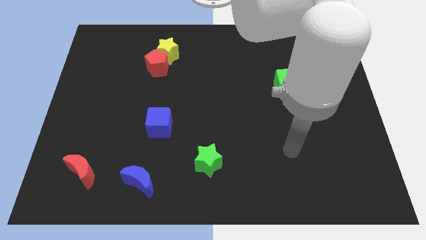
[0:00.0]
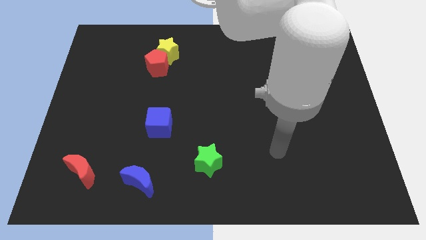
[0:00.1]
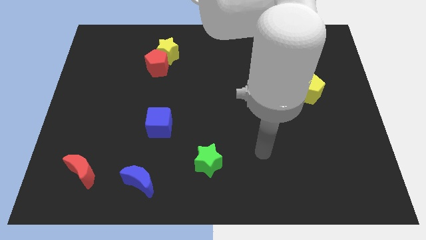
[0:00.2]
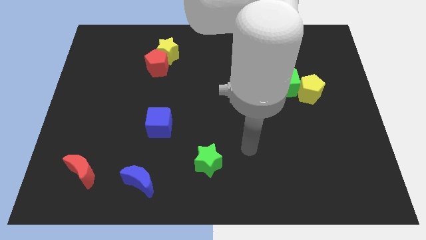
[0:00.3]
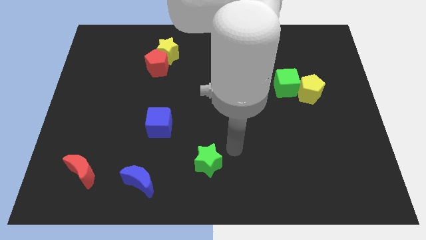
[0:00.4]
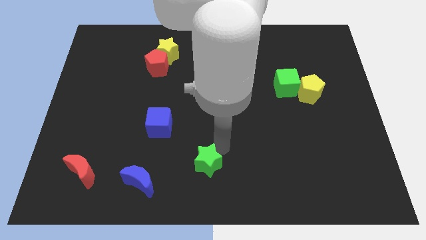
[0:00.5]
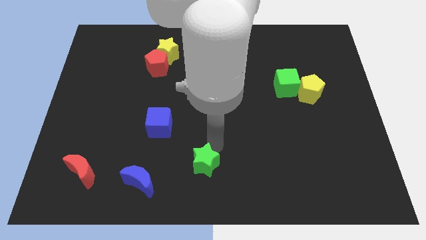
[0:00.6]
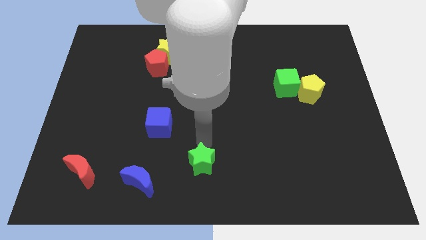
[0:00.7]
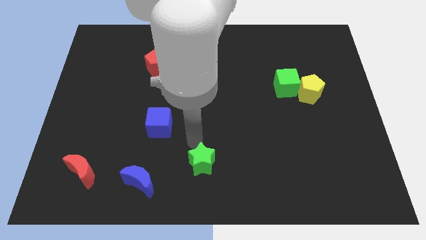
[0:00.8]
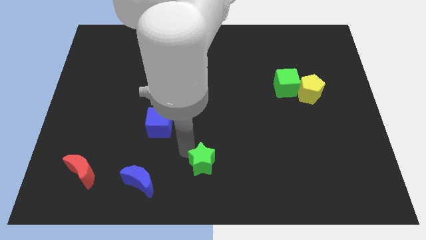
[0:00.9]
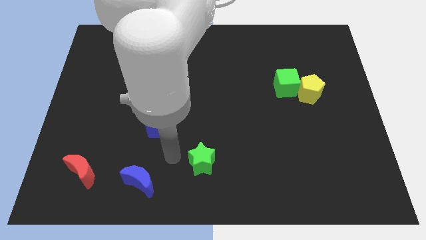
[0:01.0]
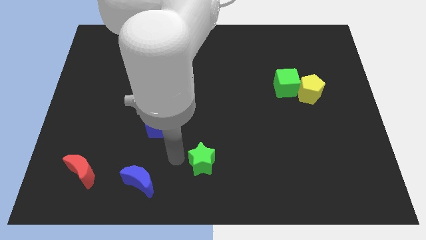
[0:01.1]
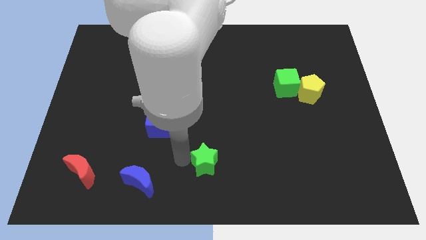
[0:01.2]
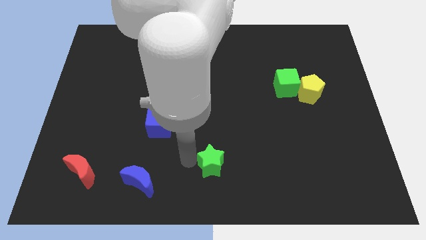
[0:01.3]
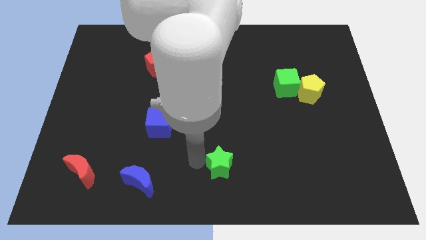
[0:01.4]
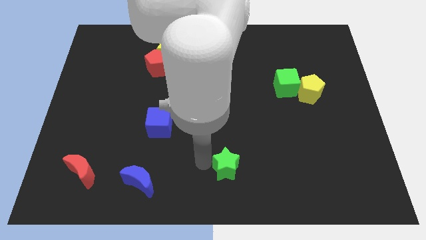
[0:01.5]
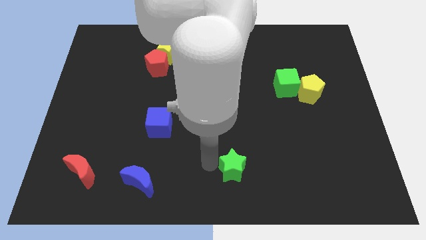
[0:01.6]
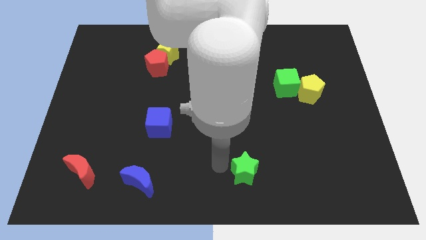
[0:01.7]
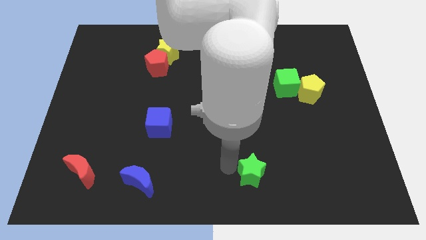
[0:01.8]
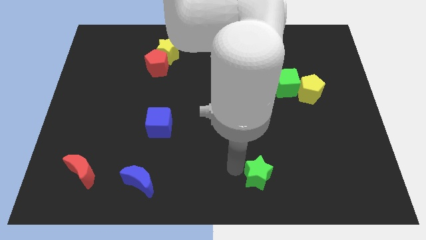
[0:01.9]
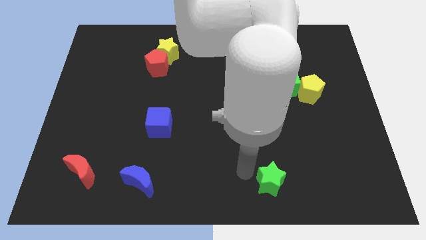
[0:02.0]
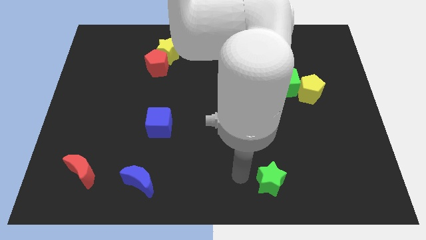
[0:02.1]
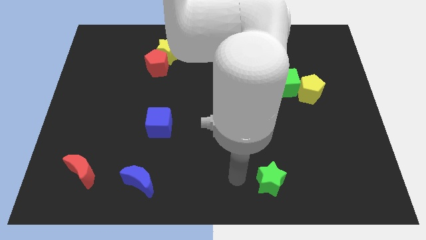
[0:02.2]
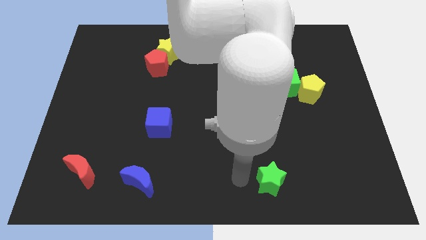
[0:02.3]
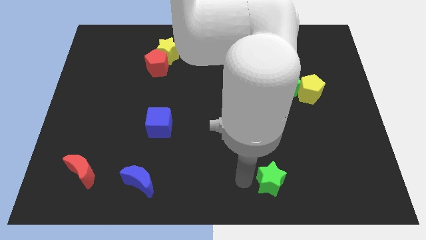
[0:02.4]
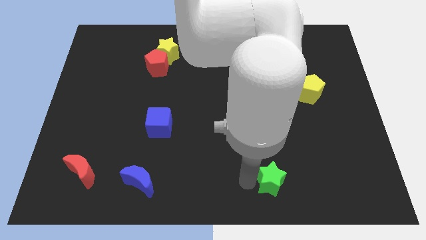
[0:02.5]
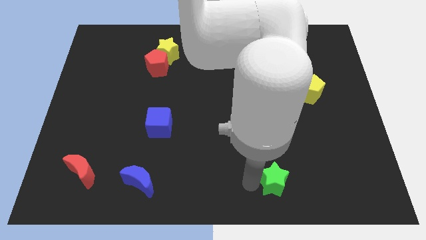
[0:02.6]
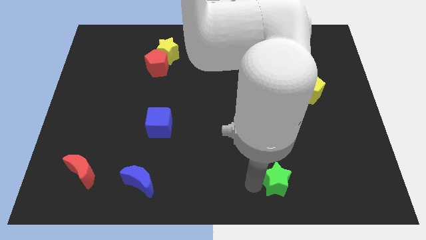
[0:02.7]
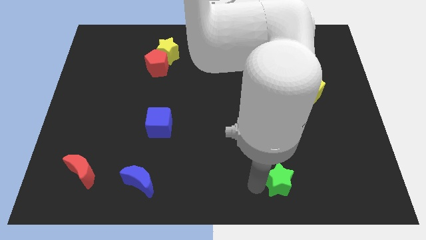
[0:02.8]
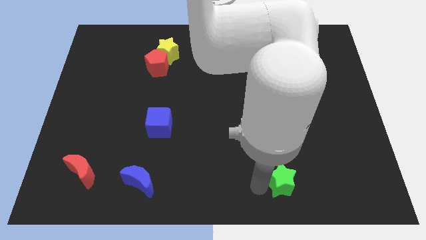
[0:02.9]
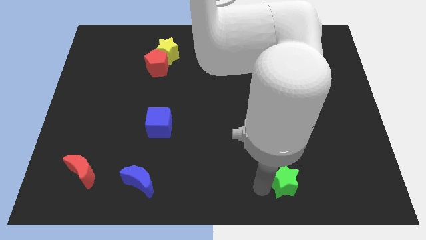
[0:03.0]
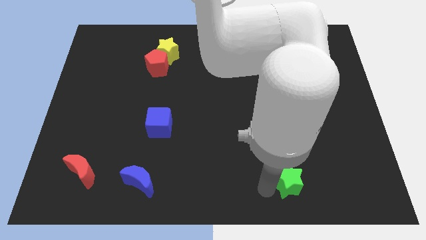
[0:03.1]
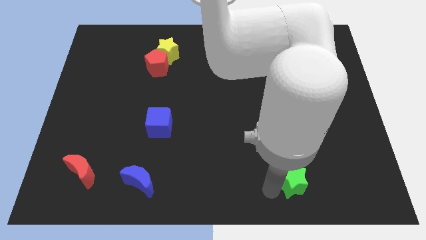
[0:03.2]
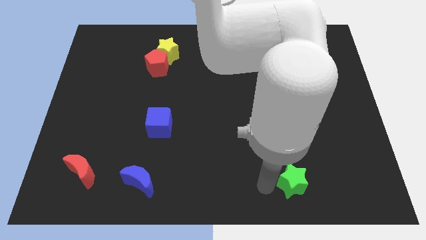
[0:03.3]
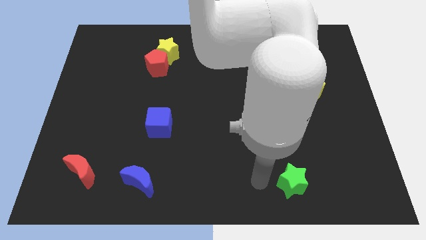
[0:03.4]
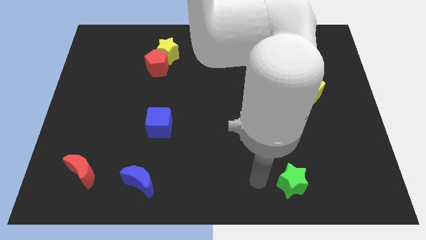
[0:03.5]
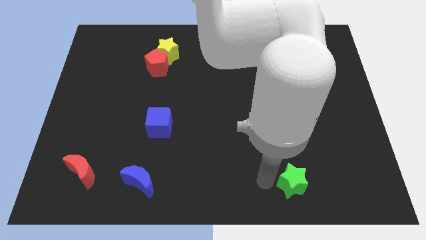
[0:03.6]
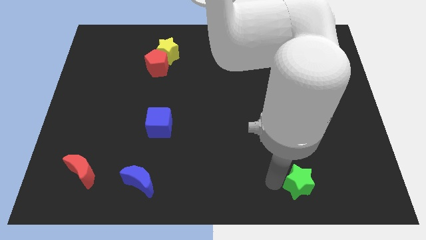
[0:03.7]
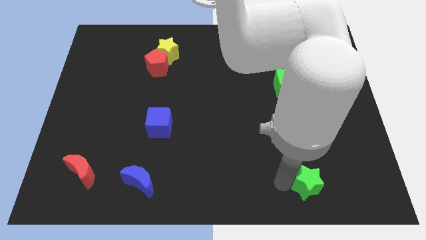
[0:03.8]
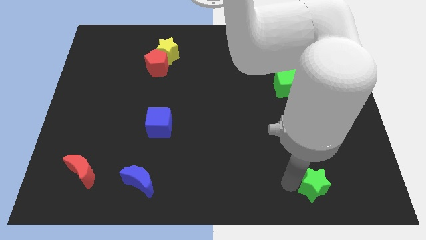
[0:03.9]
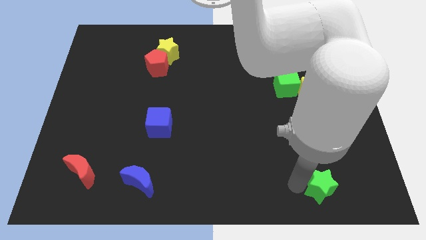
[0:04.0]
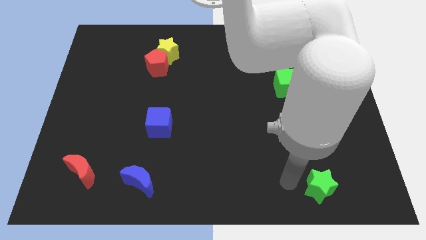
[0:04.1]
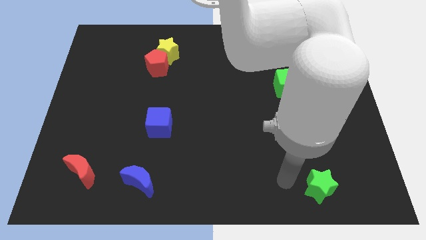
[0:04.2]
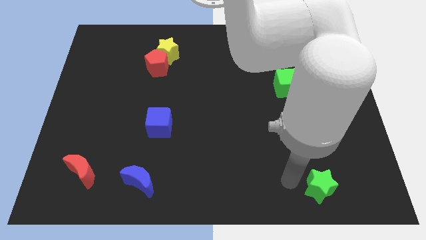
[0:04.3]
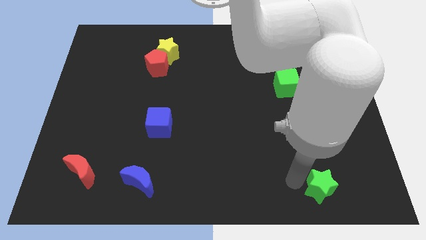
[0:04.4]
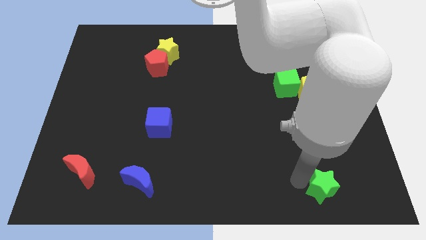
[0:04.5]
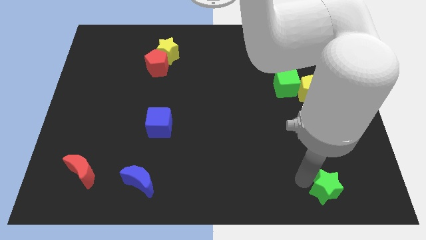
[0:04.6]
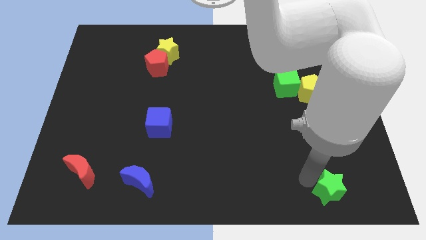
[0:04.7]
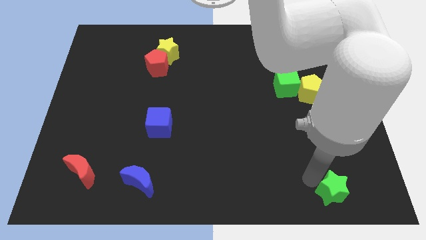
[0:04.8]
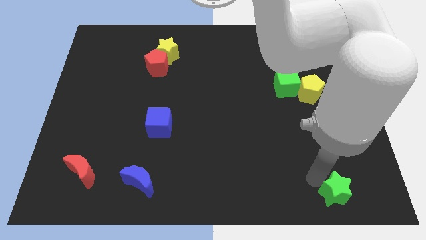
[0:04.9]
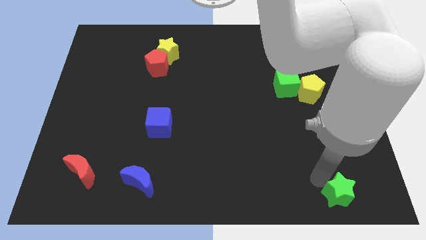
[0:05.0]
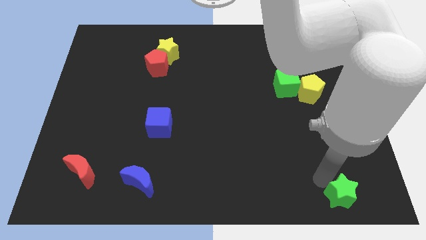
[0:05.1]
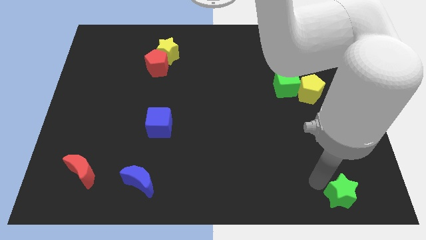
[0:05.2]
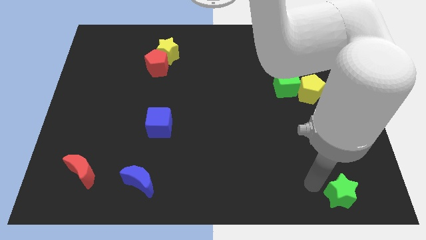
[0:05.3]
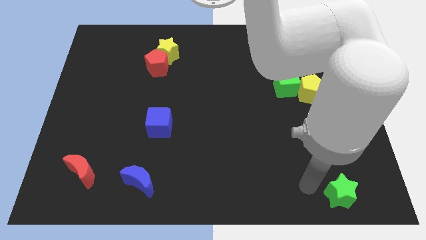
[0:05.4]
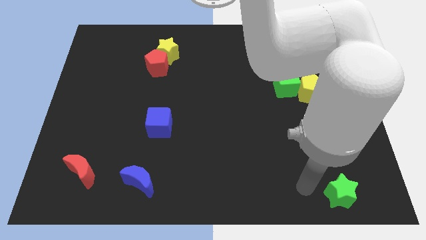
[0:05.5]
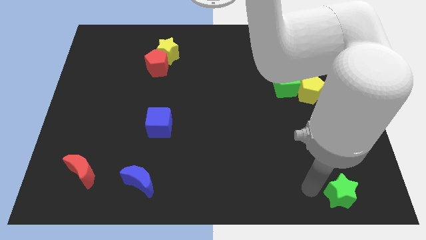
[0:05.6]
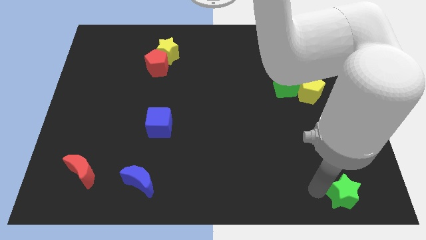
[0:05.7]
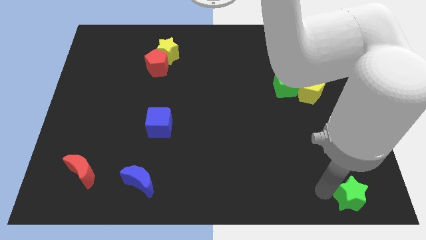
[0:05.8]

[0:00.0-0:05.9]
push the green star to the bottom right of the board

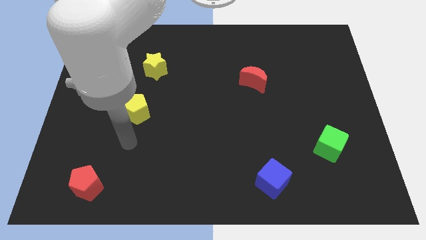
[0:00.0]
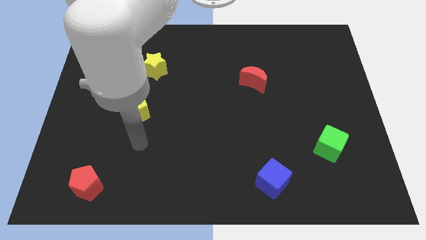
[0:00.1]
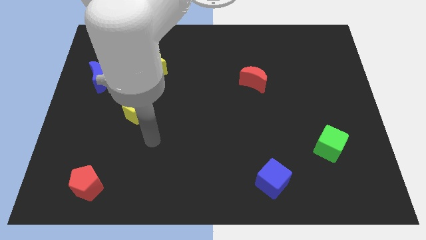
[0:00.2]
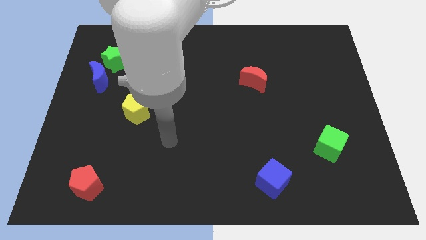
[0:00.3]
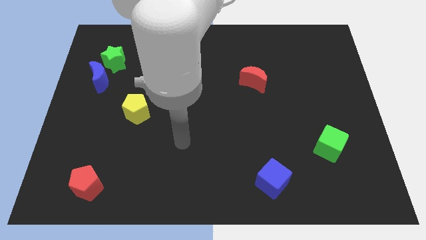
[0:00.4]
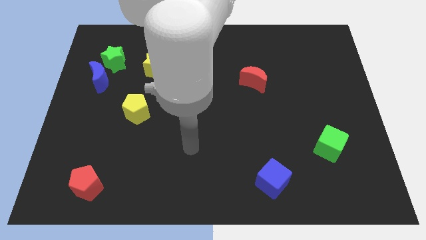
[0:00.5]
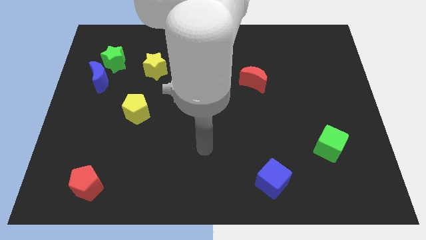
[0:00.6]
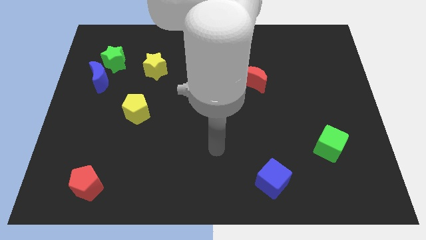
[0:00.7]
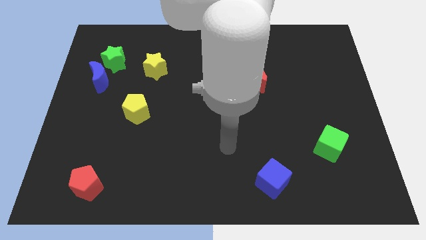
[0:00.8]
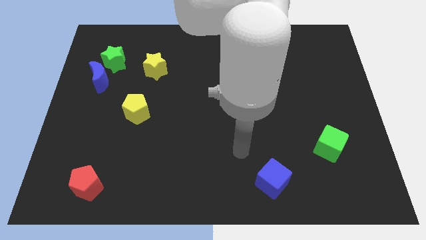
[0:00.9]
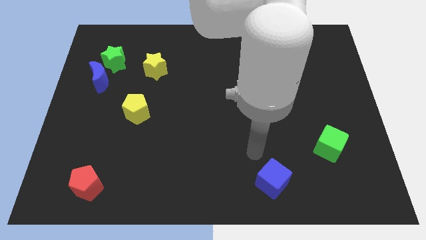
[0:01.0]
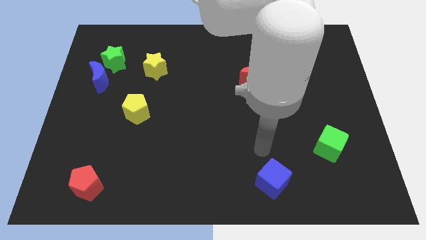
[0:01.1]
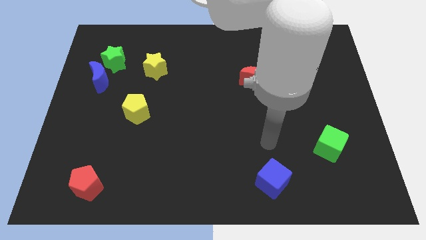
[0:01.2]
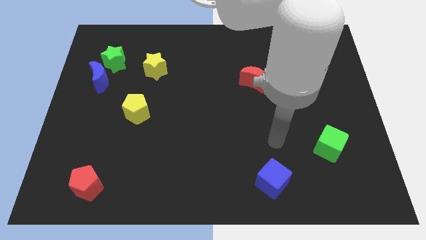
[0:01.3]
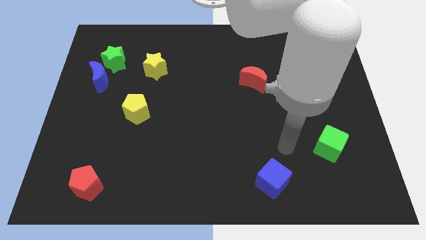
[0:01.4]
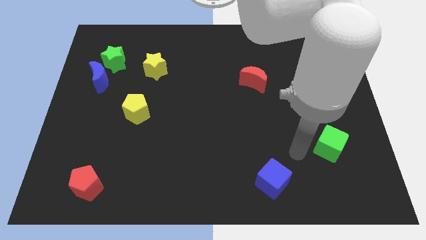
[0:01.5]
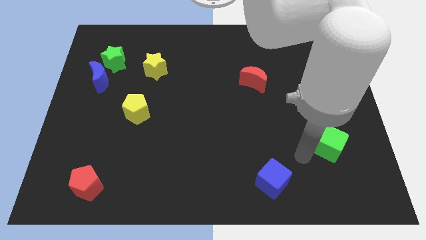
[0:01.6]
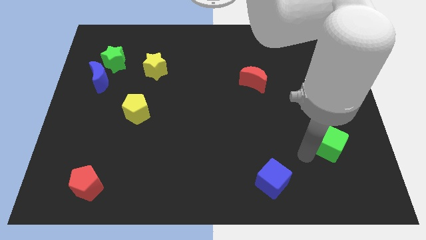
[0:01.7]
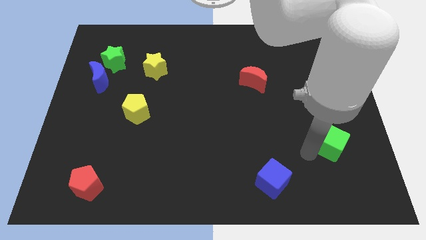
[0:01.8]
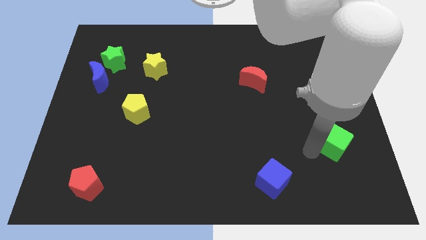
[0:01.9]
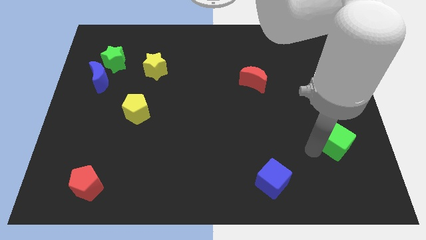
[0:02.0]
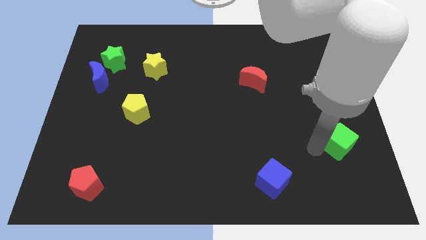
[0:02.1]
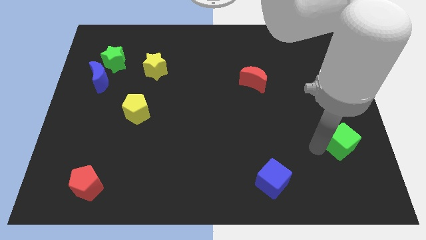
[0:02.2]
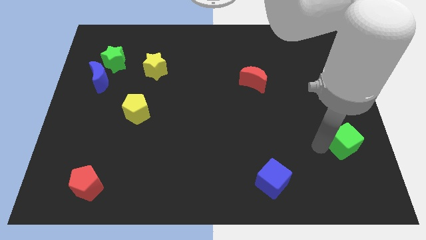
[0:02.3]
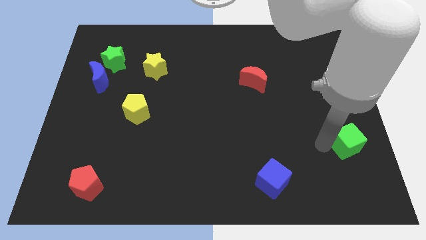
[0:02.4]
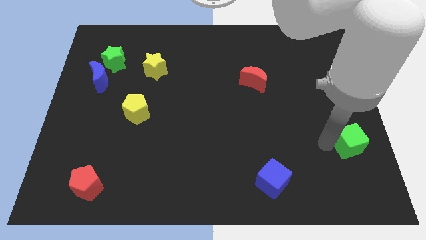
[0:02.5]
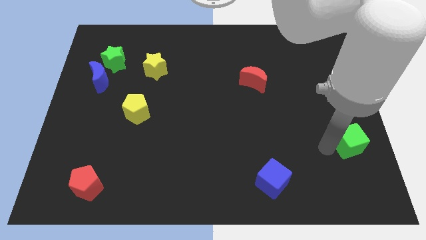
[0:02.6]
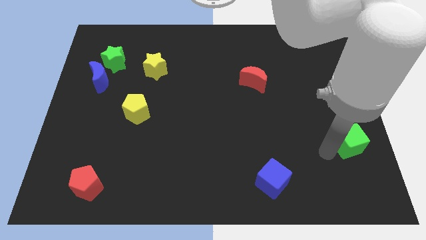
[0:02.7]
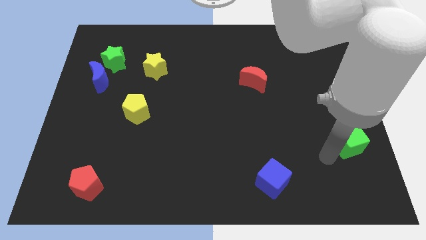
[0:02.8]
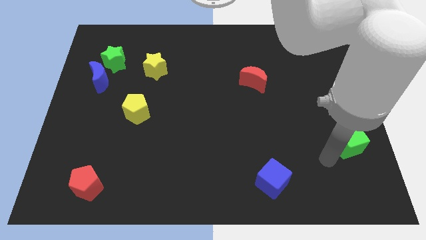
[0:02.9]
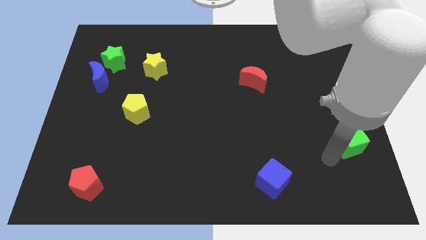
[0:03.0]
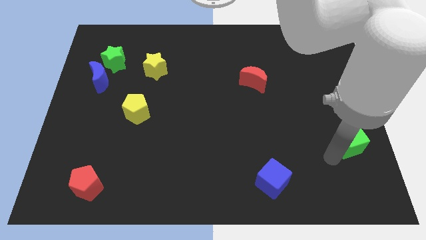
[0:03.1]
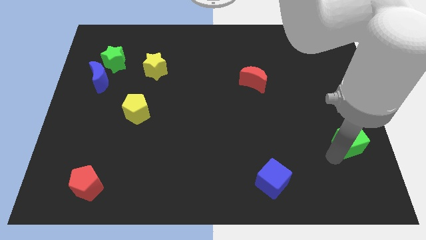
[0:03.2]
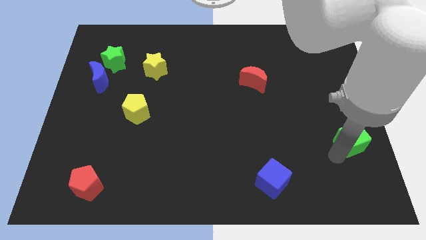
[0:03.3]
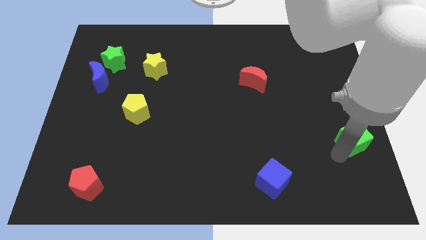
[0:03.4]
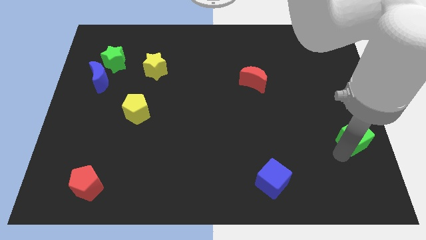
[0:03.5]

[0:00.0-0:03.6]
move the green cube to the right side of the board
